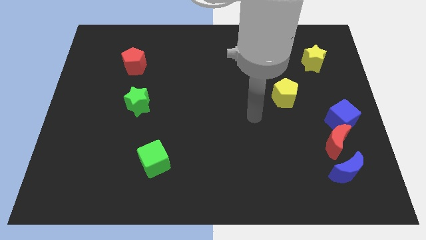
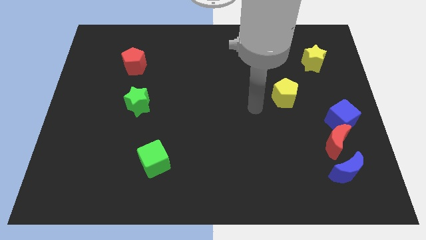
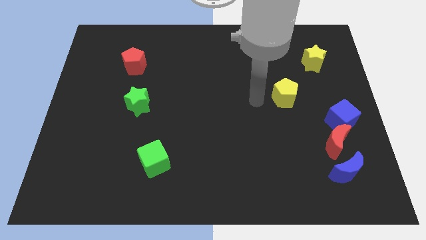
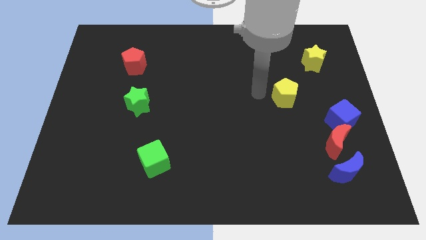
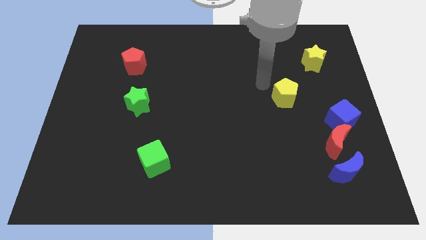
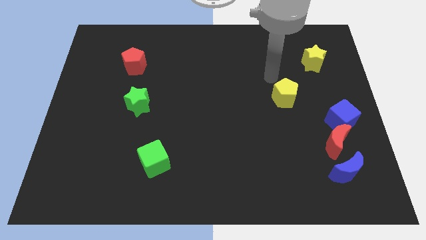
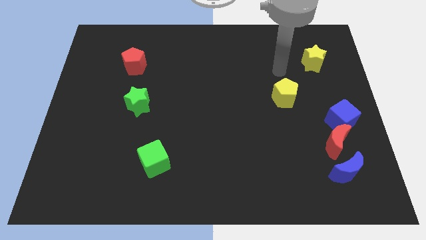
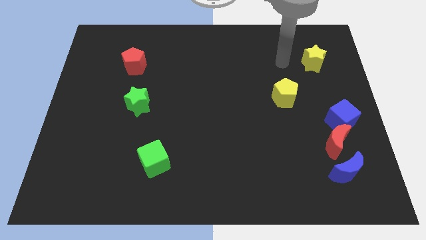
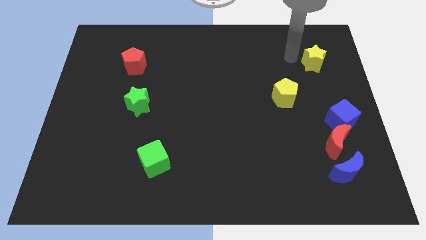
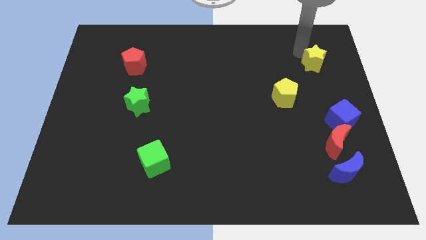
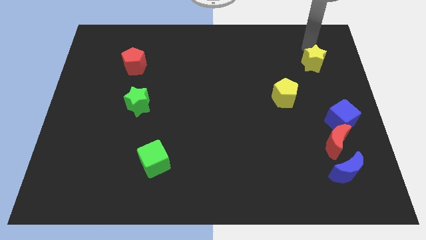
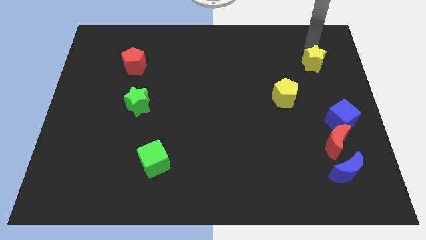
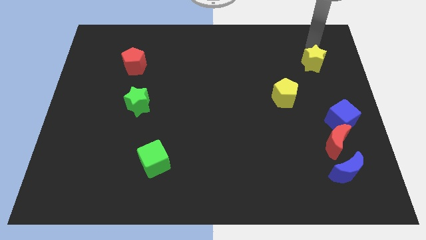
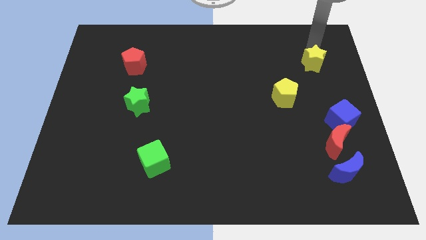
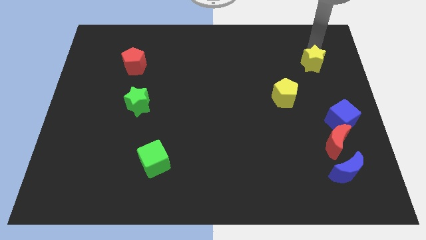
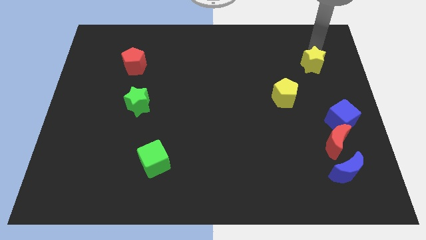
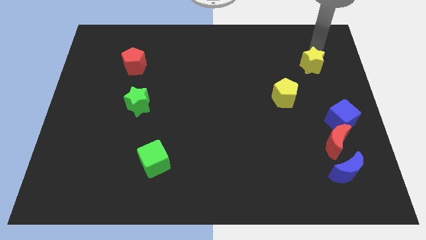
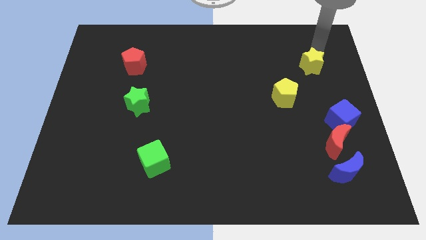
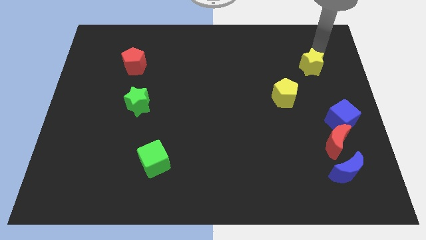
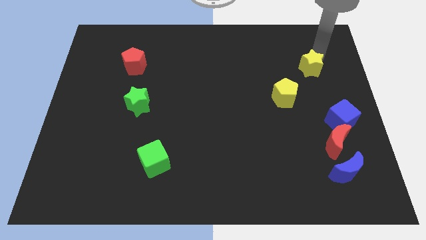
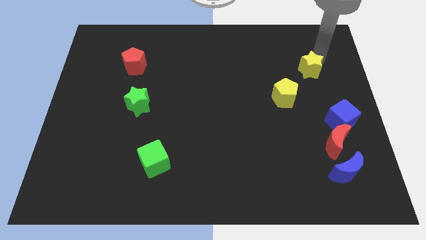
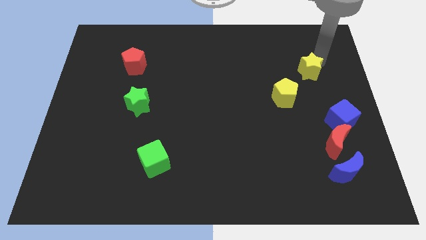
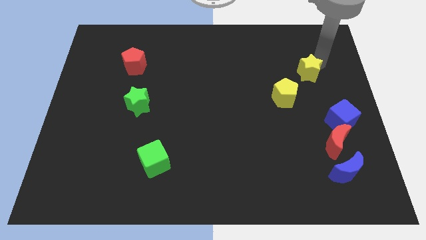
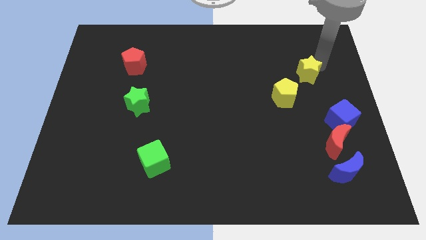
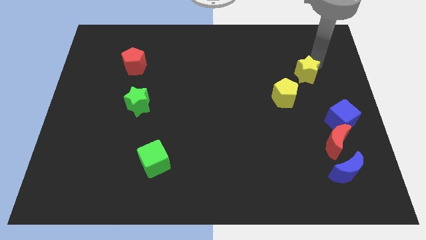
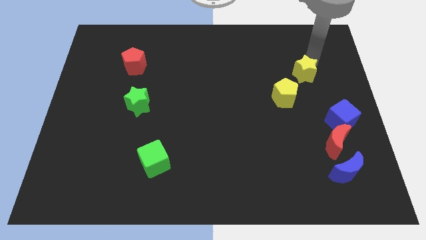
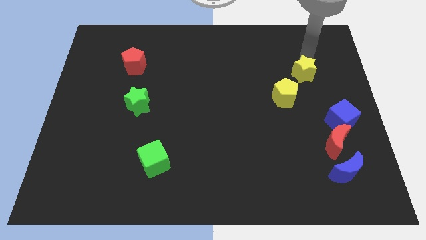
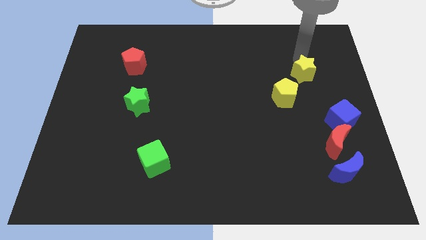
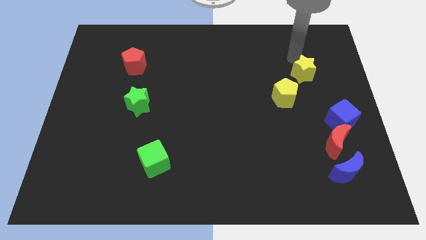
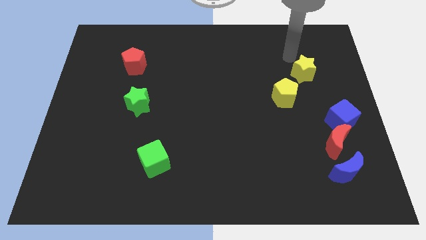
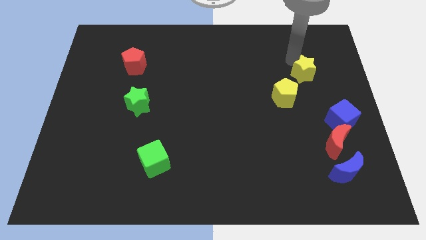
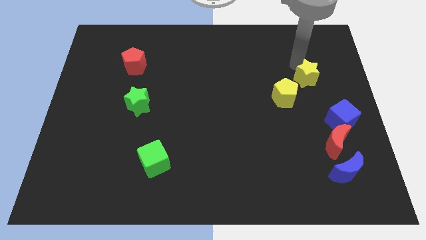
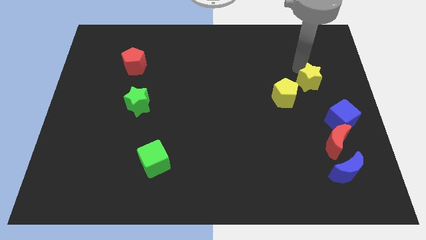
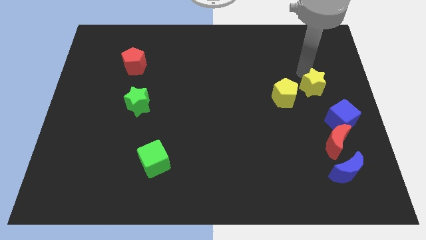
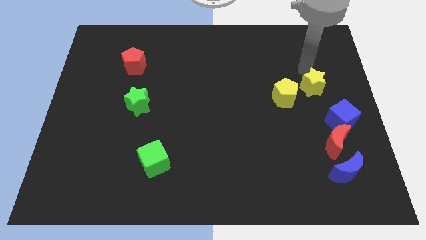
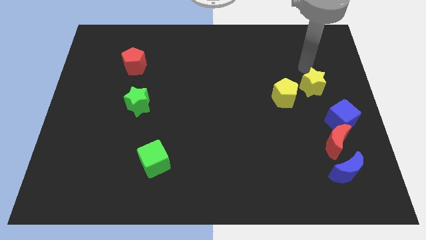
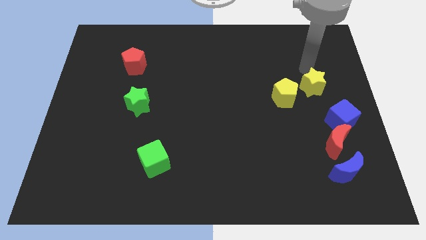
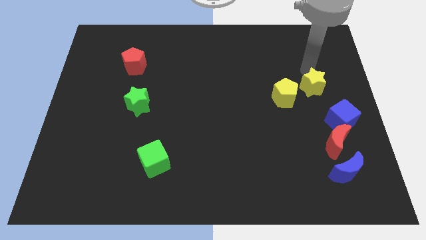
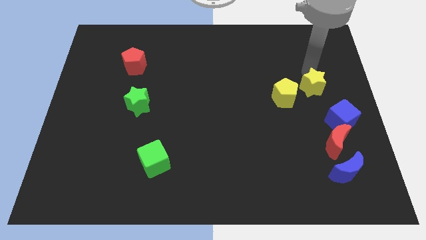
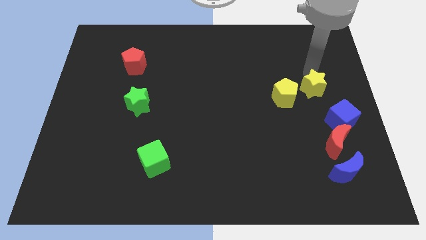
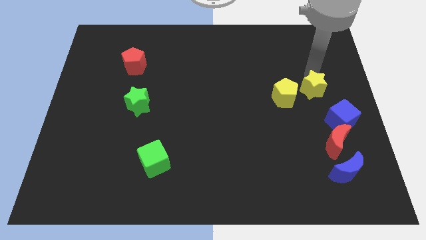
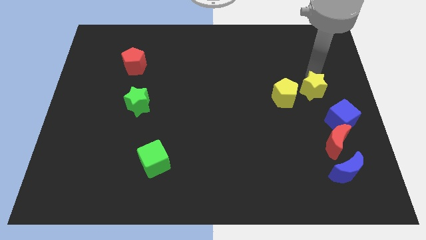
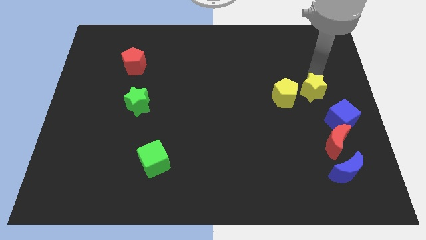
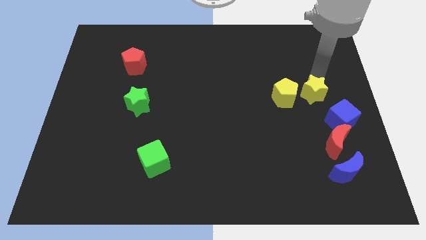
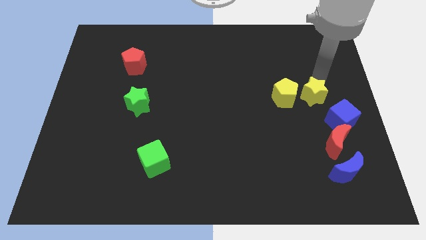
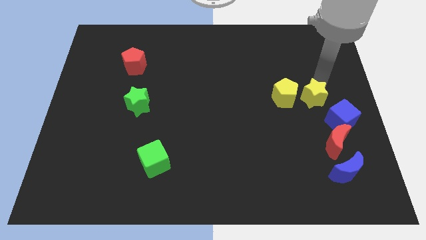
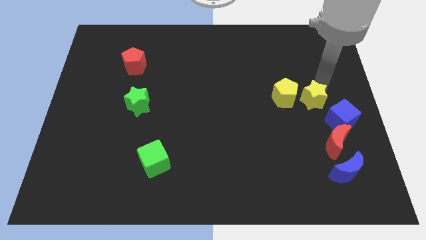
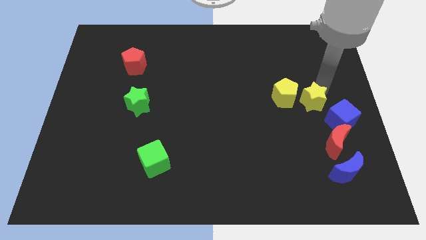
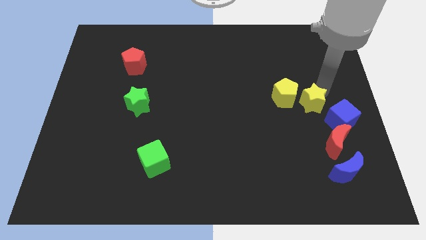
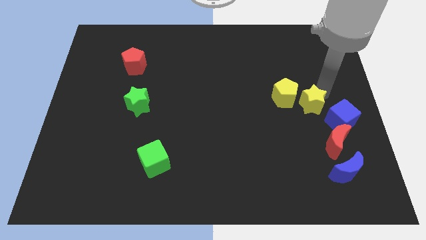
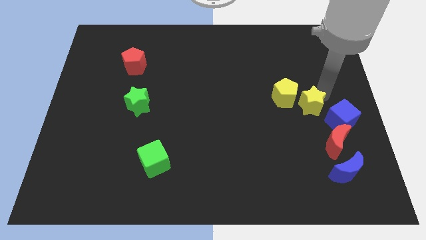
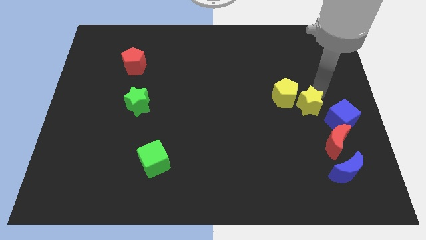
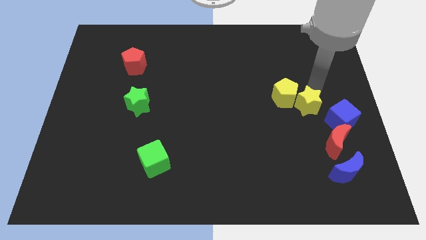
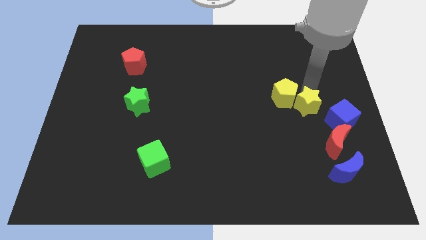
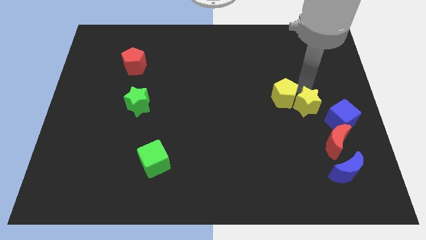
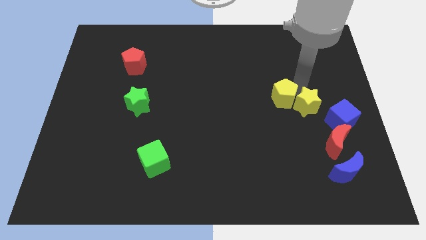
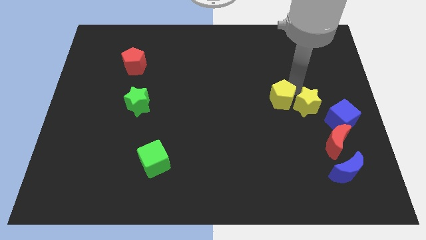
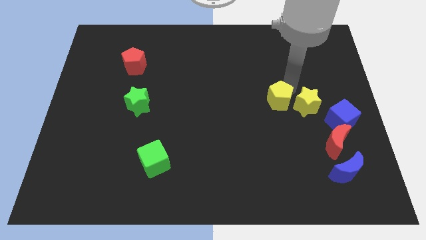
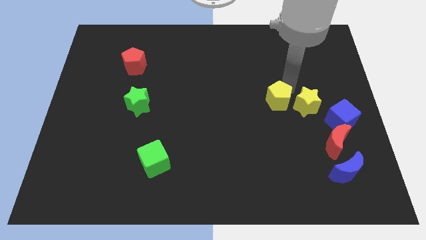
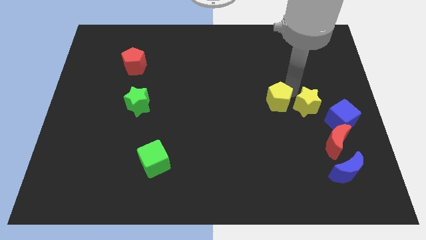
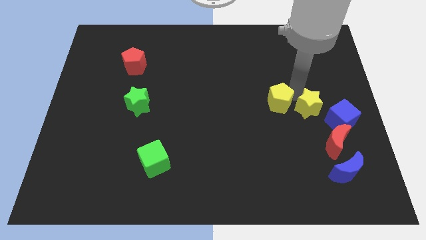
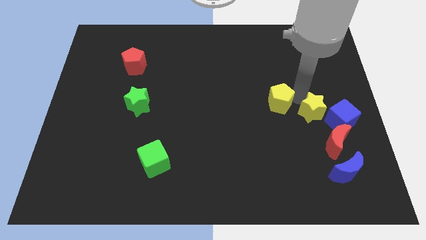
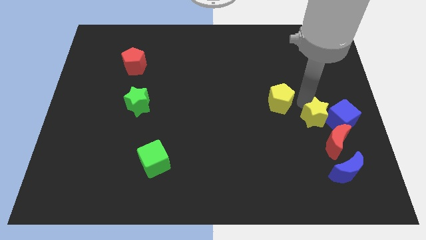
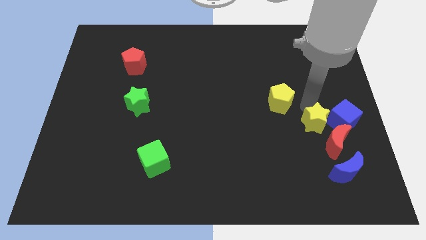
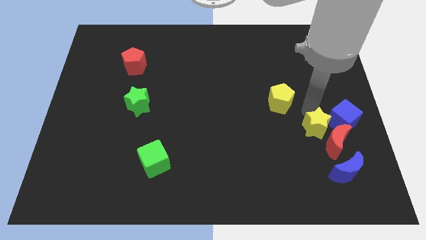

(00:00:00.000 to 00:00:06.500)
move the yellow star to the red moon

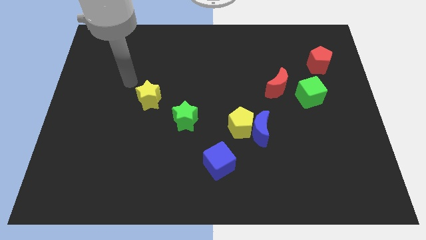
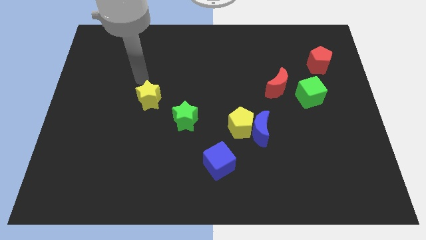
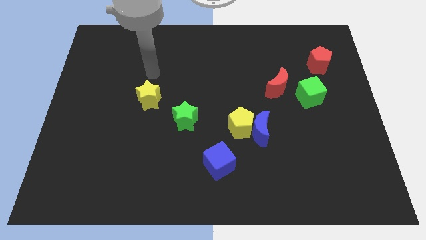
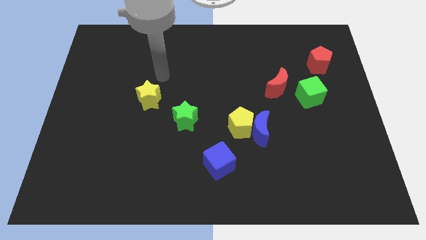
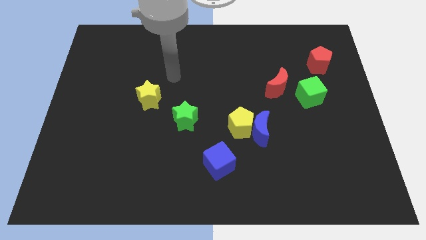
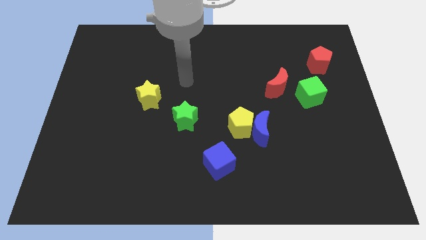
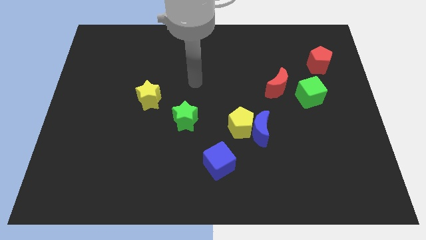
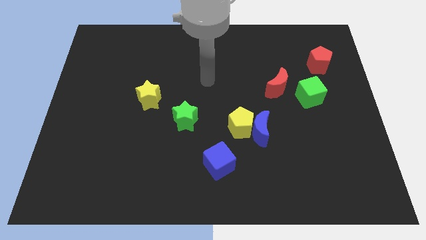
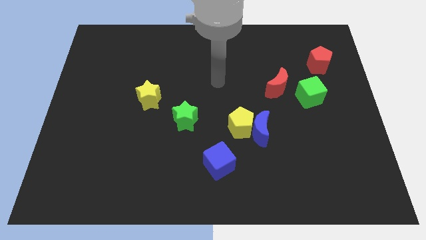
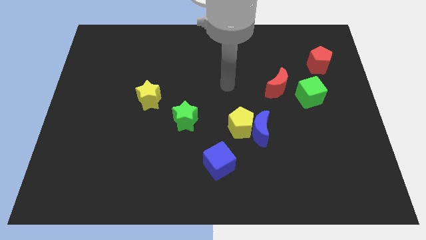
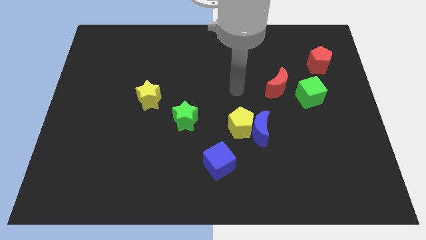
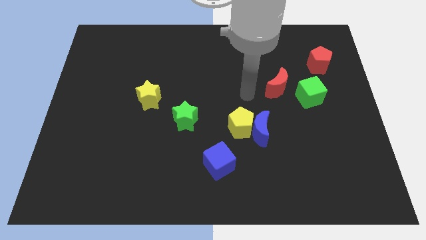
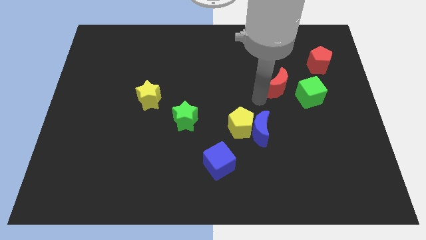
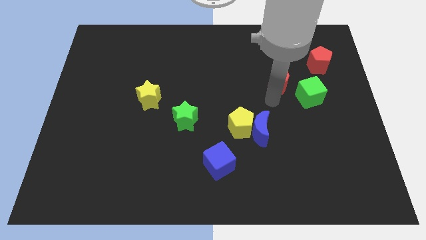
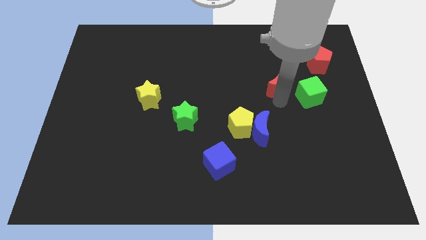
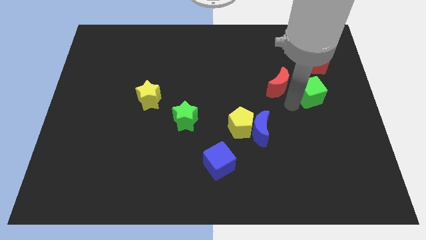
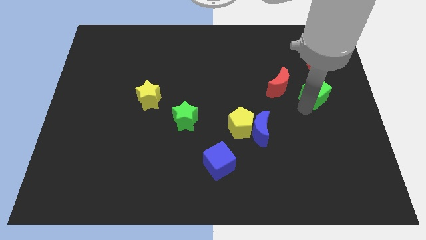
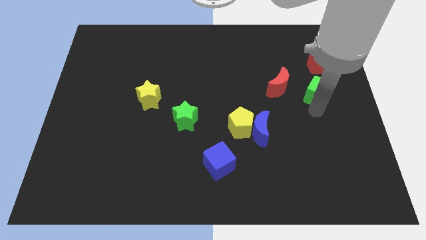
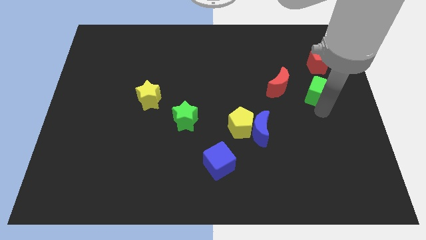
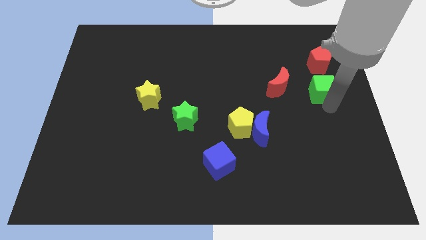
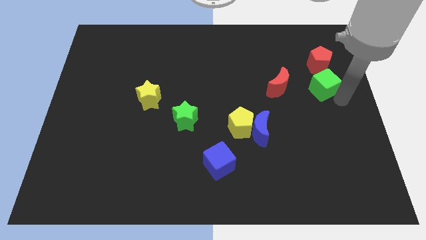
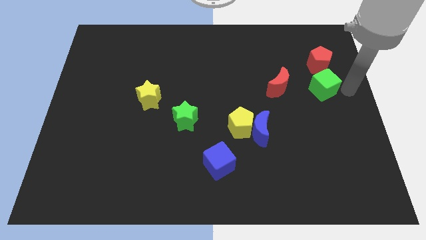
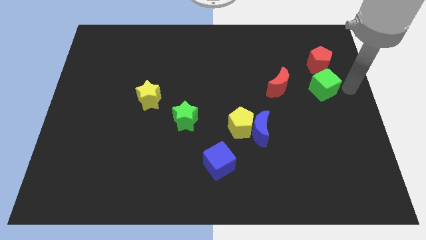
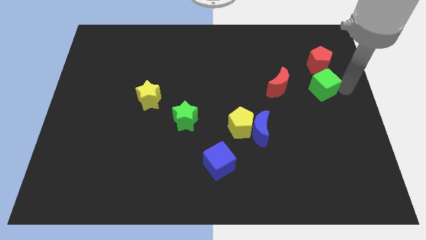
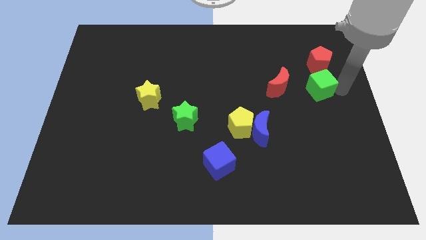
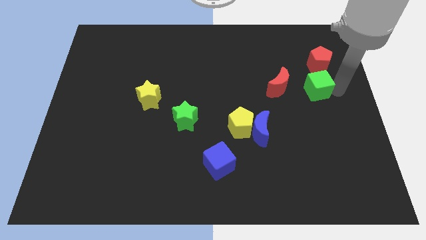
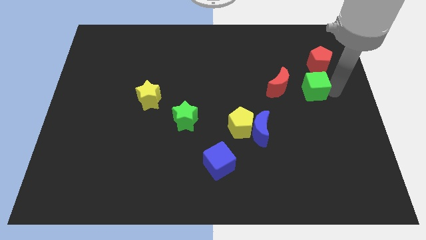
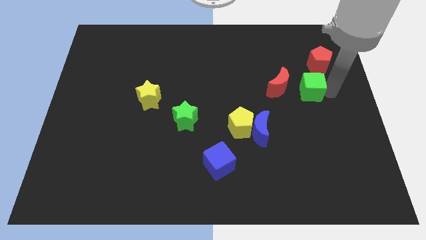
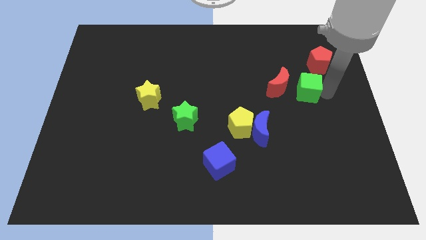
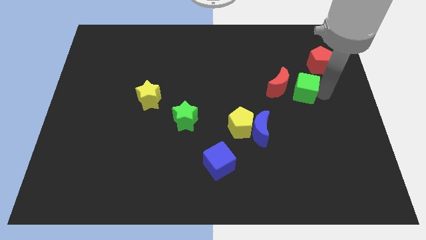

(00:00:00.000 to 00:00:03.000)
slide the green cube close to the red moon
